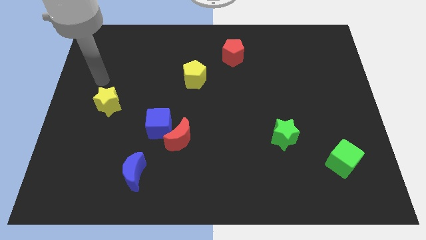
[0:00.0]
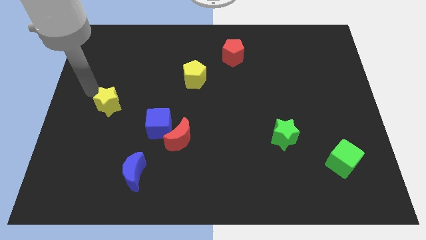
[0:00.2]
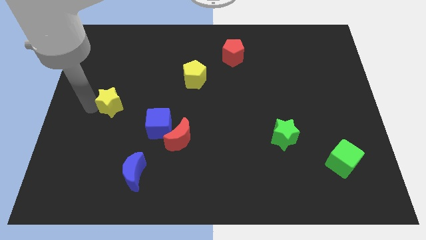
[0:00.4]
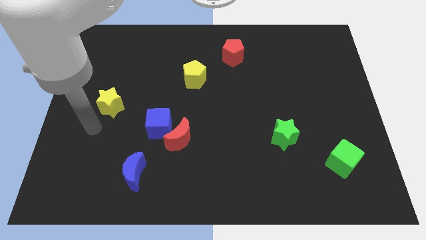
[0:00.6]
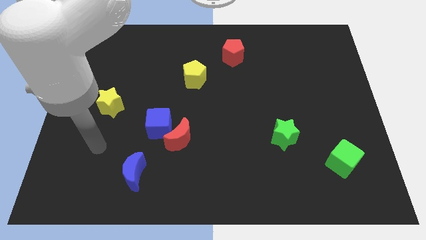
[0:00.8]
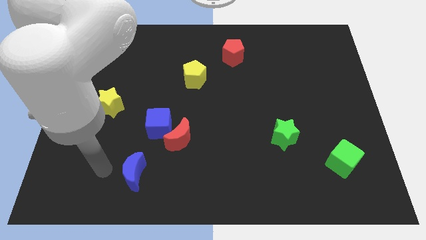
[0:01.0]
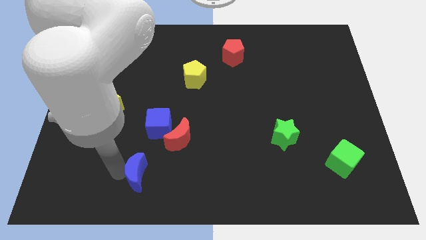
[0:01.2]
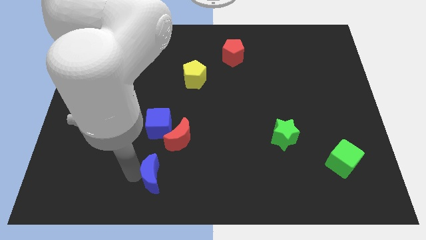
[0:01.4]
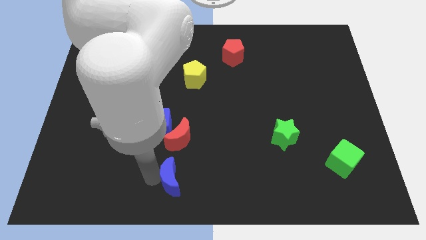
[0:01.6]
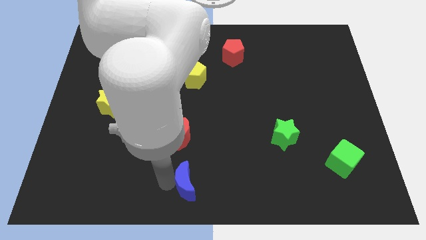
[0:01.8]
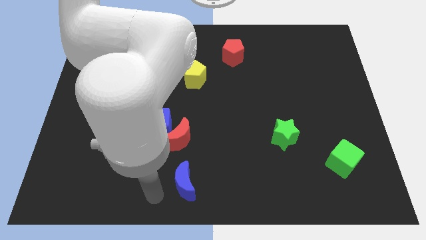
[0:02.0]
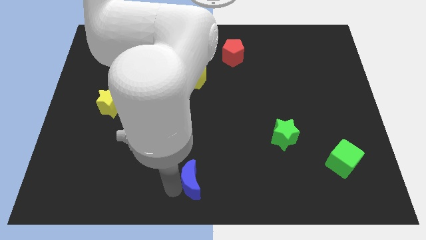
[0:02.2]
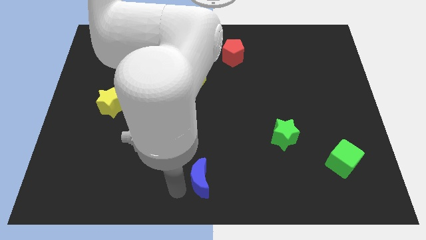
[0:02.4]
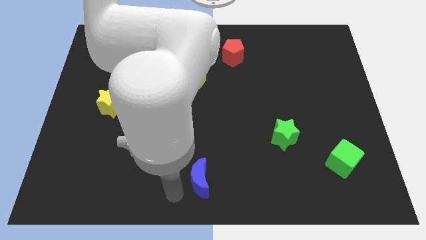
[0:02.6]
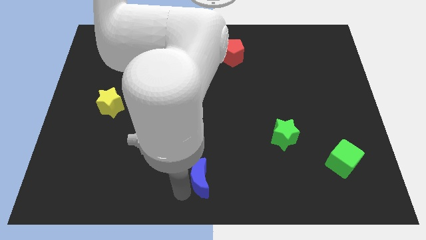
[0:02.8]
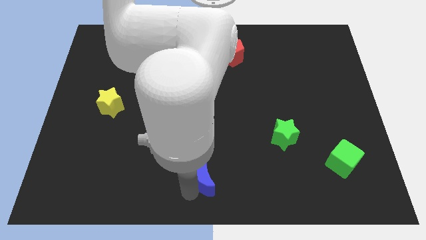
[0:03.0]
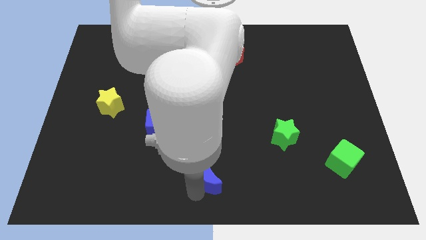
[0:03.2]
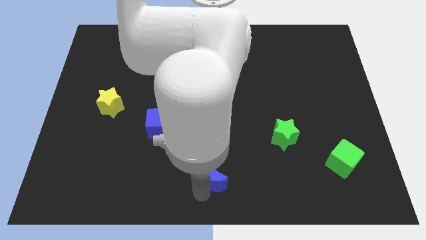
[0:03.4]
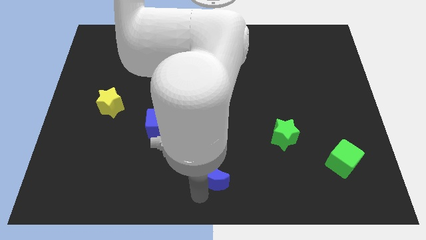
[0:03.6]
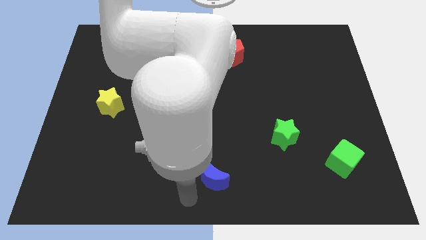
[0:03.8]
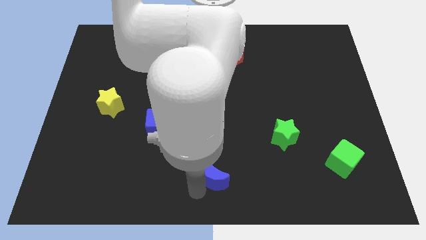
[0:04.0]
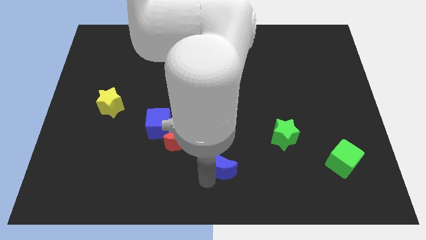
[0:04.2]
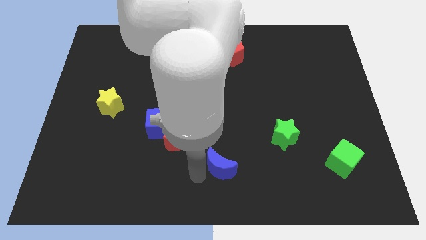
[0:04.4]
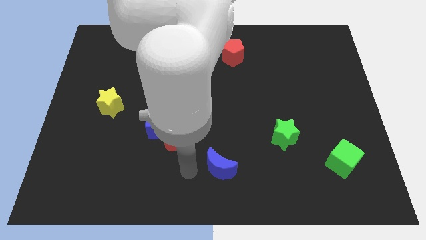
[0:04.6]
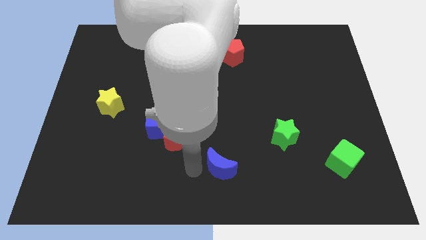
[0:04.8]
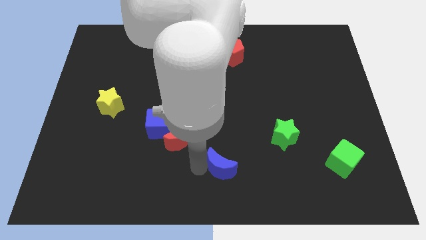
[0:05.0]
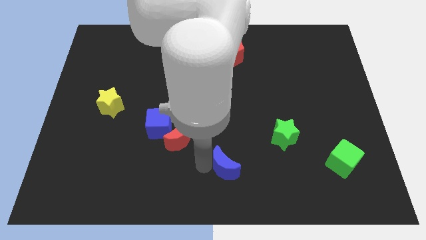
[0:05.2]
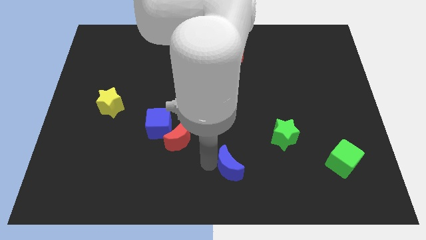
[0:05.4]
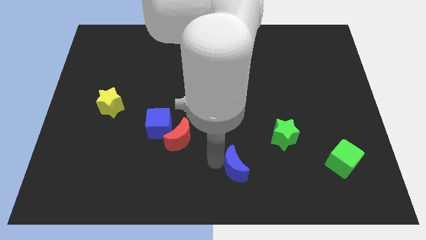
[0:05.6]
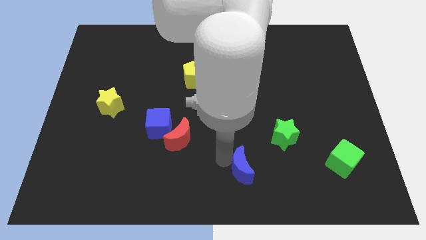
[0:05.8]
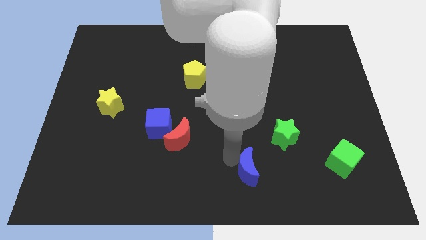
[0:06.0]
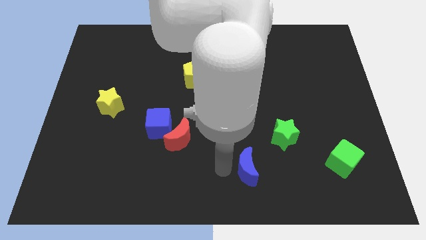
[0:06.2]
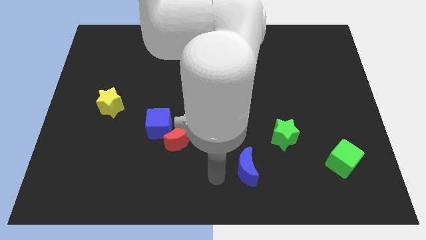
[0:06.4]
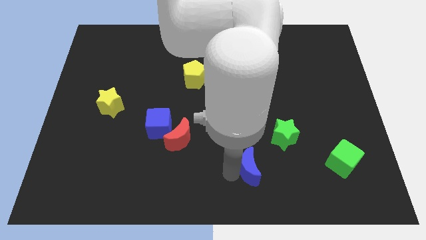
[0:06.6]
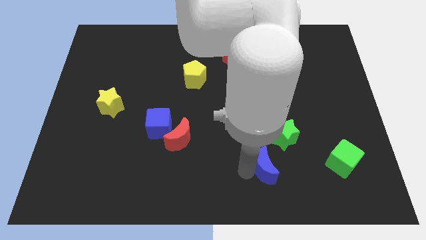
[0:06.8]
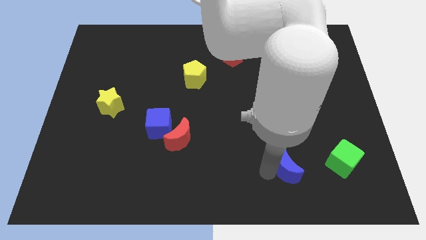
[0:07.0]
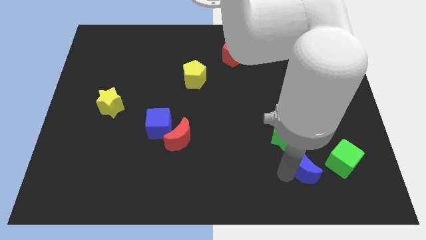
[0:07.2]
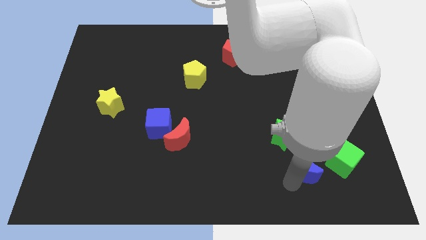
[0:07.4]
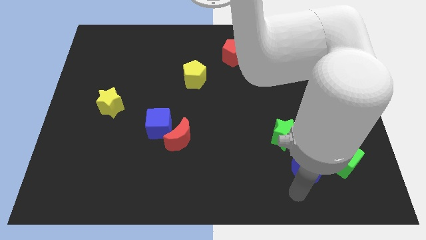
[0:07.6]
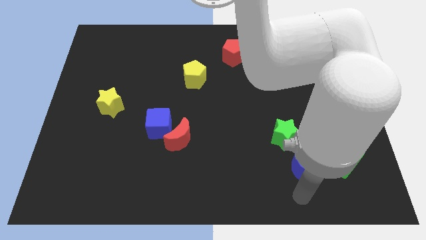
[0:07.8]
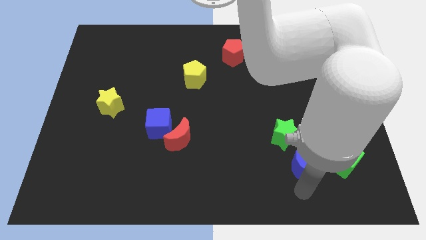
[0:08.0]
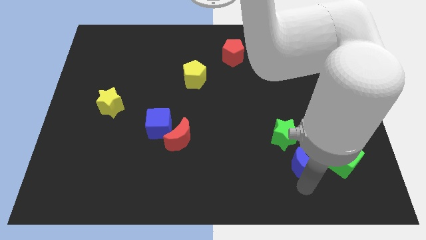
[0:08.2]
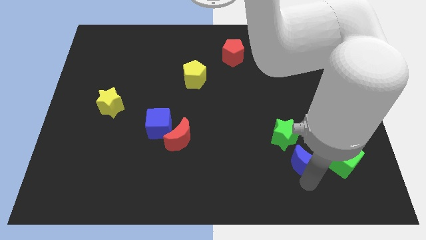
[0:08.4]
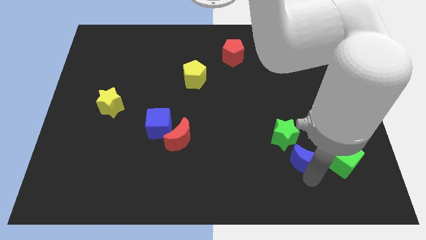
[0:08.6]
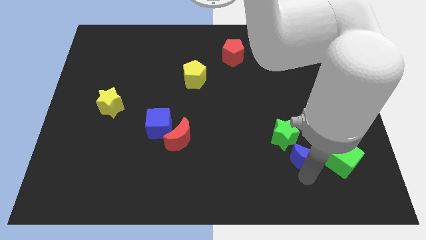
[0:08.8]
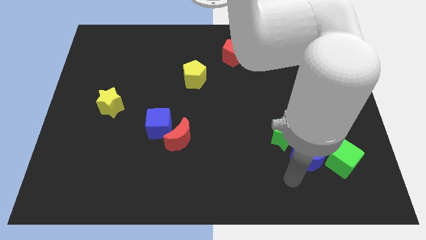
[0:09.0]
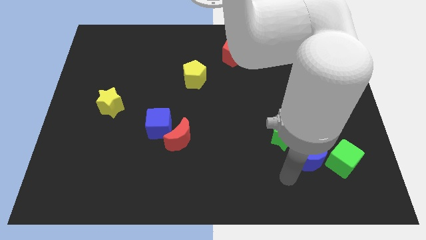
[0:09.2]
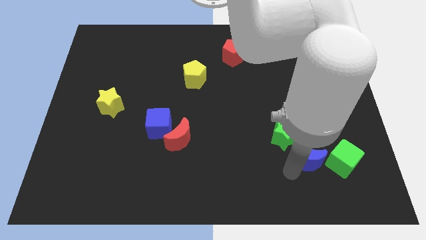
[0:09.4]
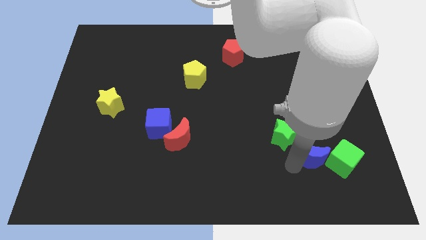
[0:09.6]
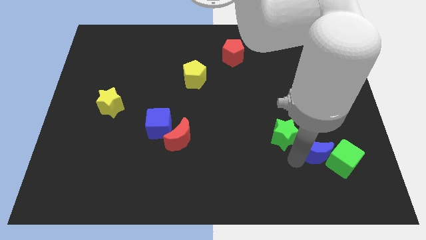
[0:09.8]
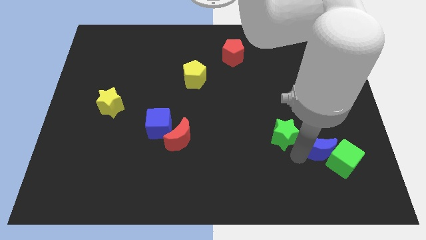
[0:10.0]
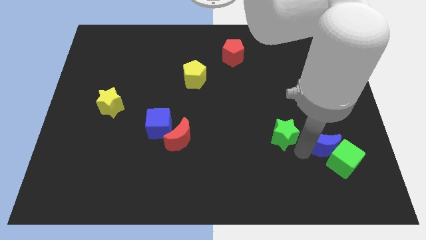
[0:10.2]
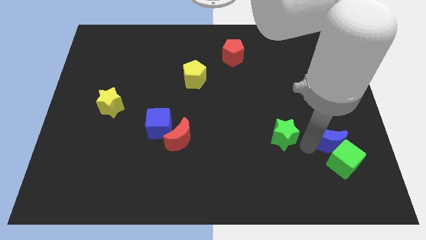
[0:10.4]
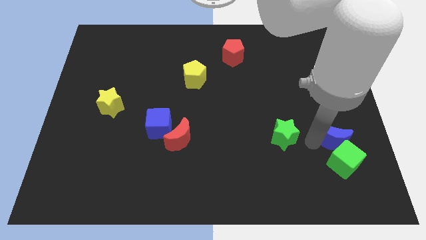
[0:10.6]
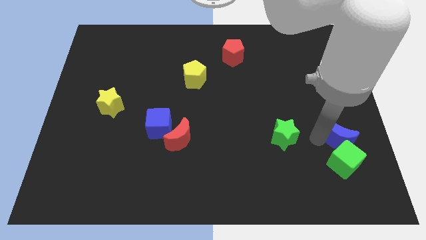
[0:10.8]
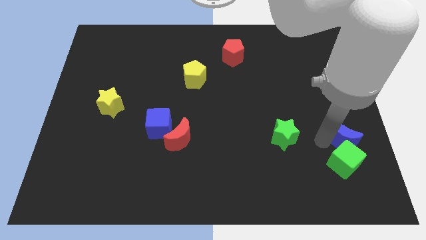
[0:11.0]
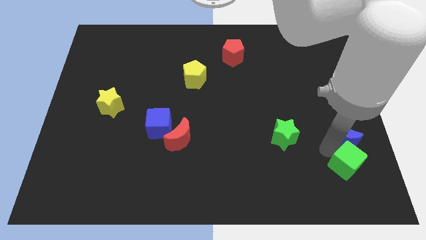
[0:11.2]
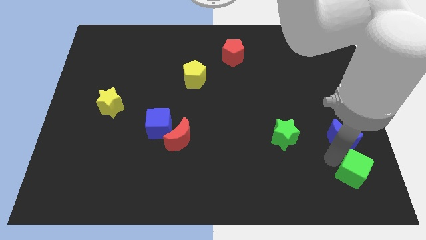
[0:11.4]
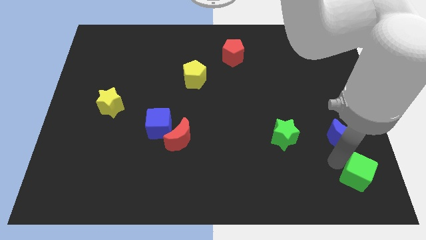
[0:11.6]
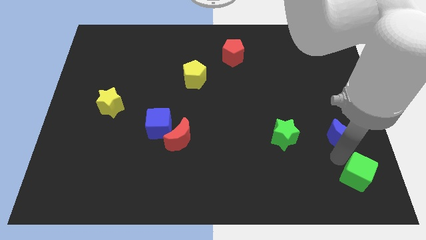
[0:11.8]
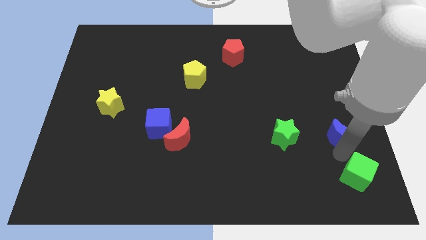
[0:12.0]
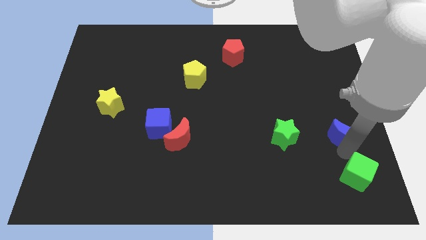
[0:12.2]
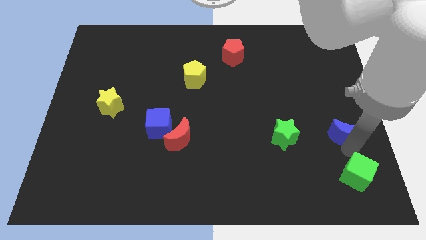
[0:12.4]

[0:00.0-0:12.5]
push the blue moon to the right side of the board

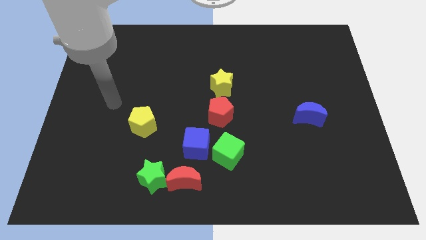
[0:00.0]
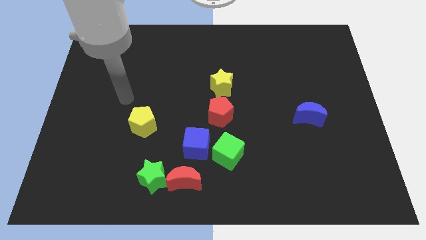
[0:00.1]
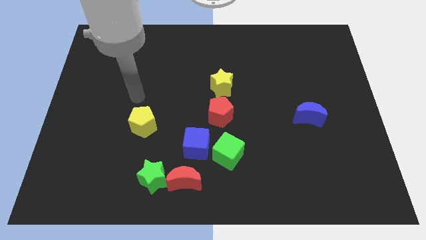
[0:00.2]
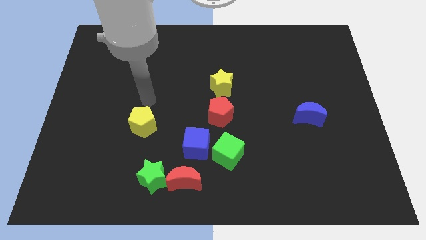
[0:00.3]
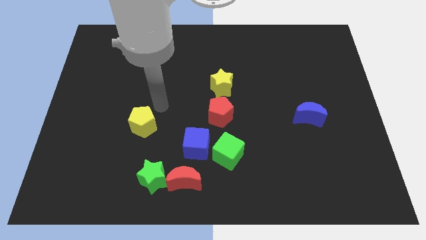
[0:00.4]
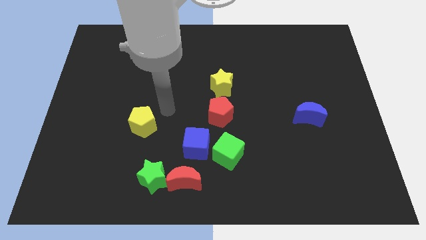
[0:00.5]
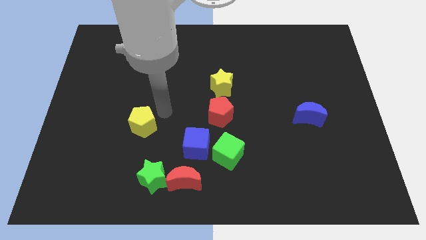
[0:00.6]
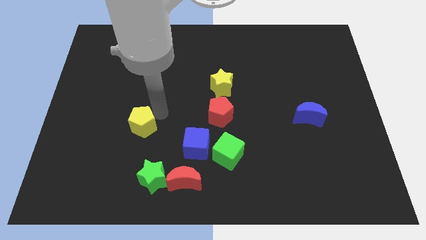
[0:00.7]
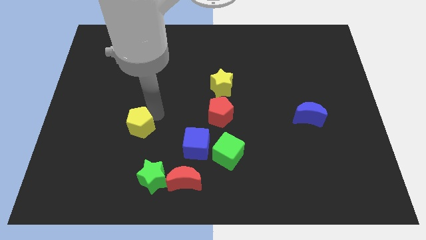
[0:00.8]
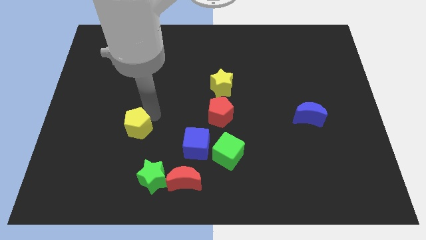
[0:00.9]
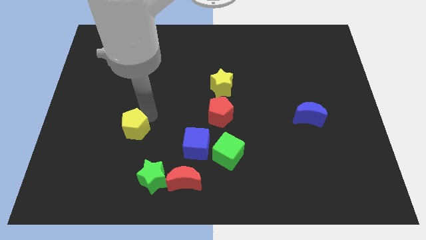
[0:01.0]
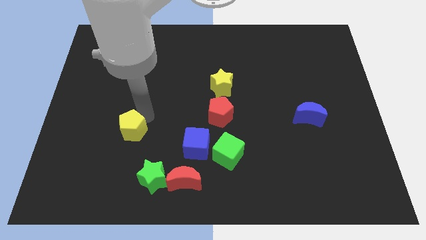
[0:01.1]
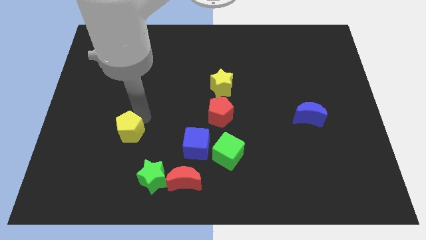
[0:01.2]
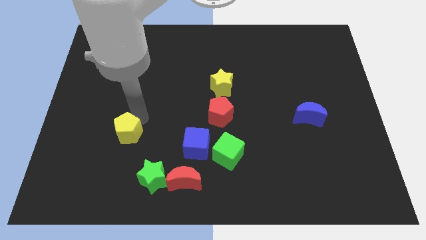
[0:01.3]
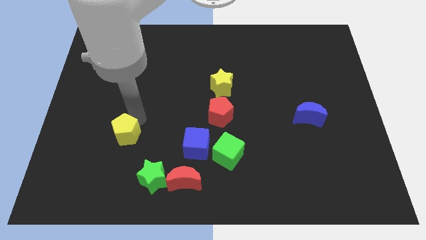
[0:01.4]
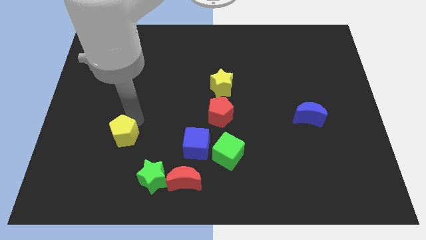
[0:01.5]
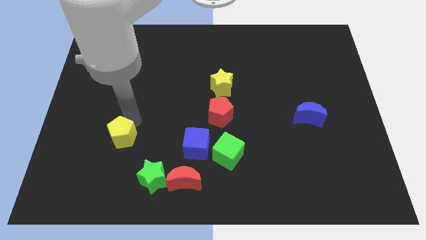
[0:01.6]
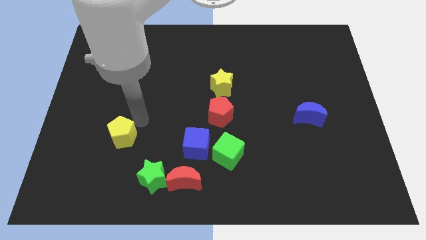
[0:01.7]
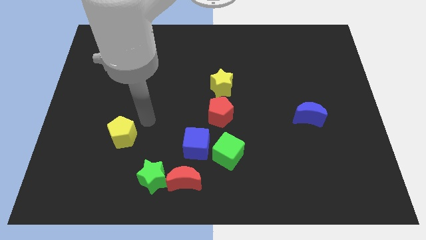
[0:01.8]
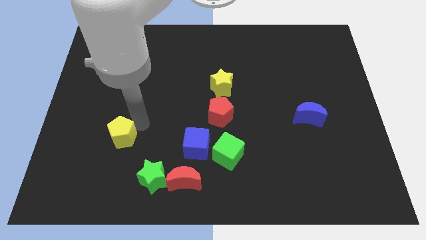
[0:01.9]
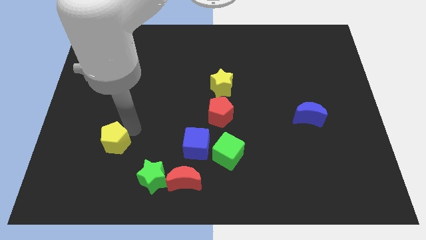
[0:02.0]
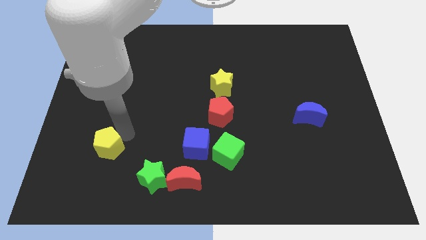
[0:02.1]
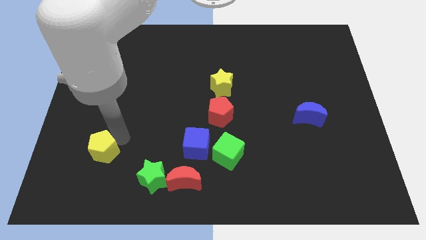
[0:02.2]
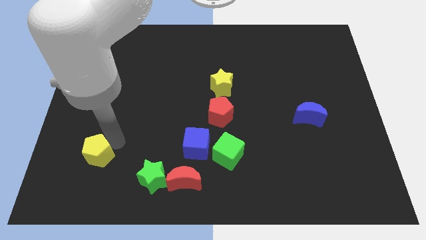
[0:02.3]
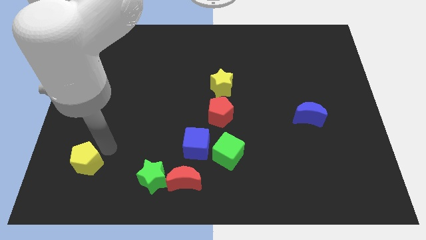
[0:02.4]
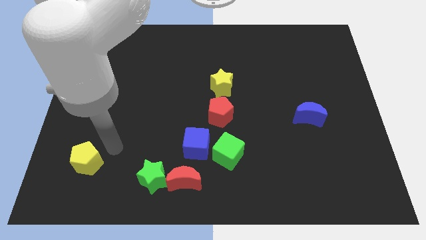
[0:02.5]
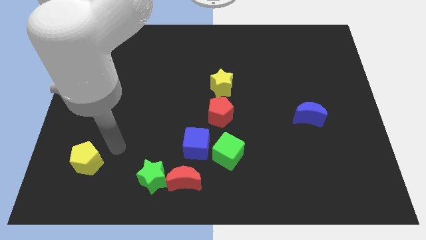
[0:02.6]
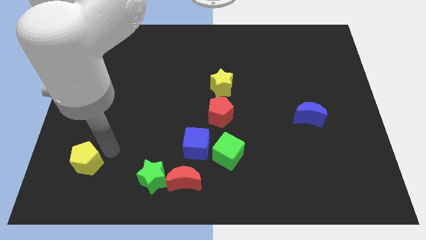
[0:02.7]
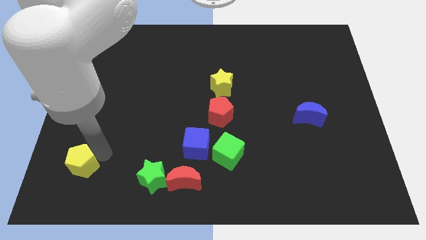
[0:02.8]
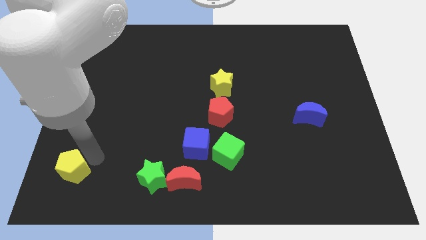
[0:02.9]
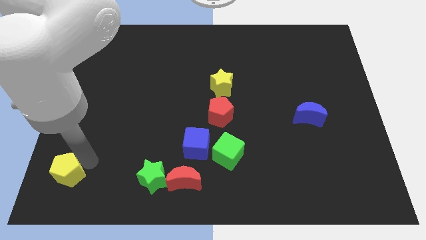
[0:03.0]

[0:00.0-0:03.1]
put the yellow pentagon to the bottom left
